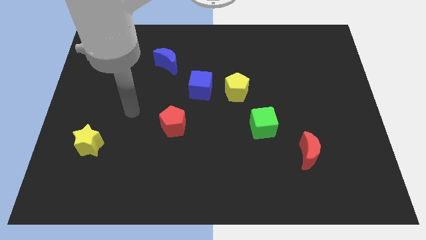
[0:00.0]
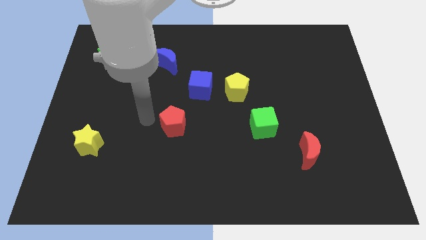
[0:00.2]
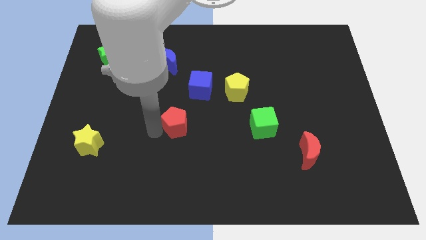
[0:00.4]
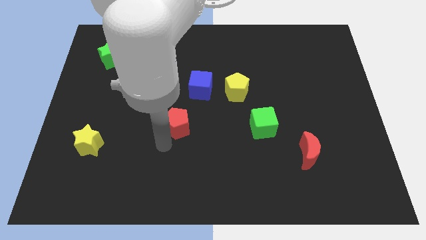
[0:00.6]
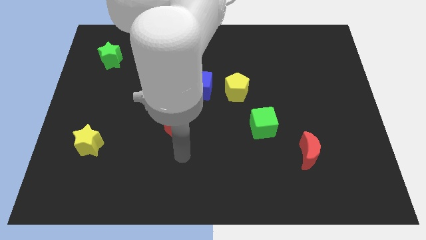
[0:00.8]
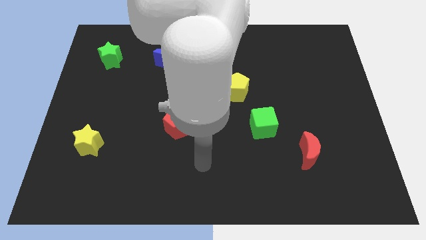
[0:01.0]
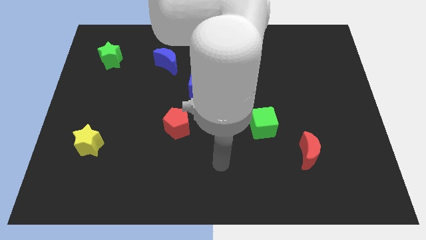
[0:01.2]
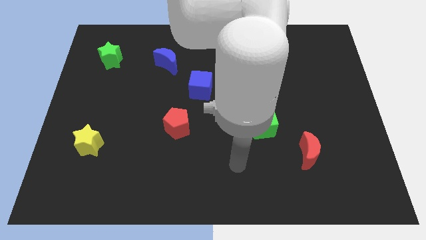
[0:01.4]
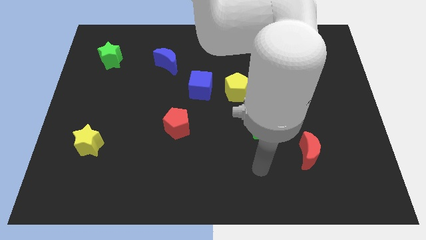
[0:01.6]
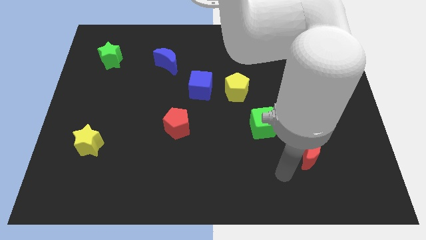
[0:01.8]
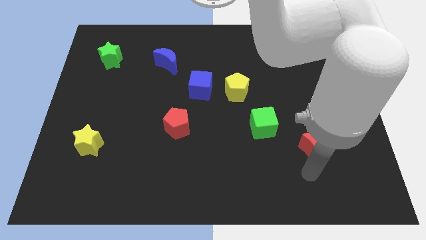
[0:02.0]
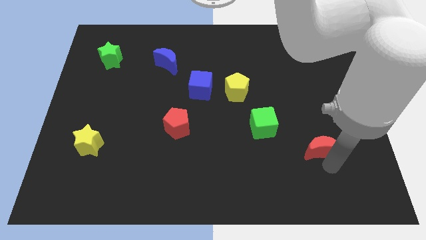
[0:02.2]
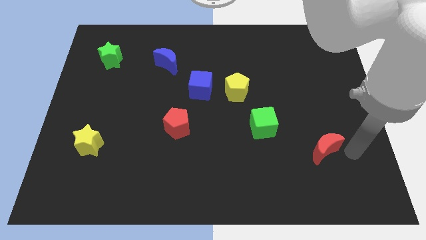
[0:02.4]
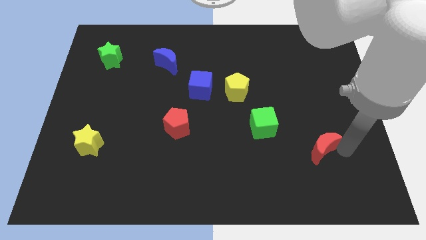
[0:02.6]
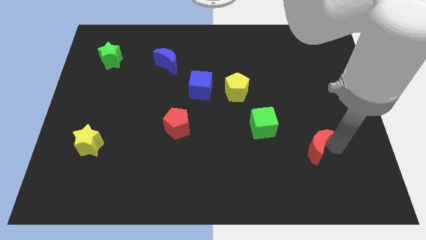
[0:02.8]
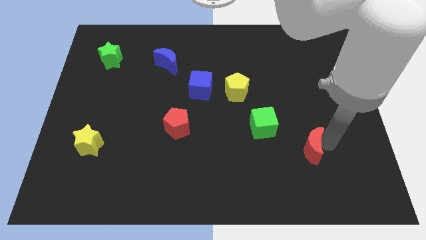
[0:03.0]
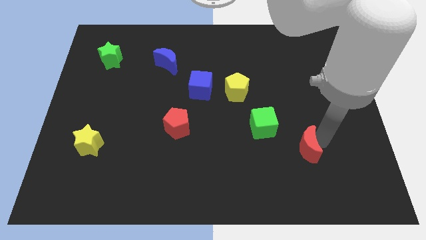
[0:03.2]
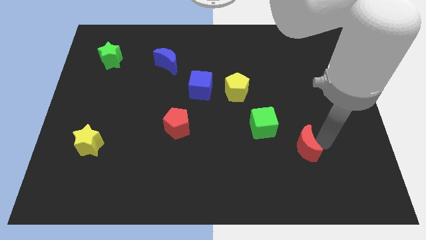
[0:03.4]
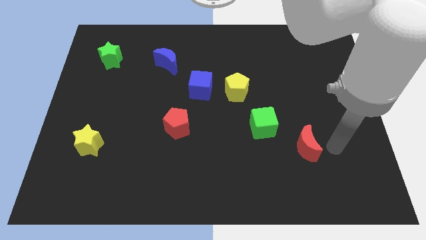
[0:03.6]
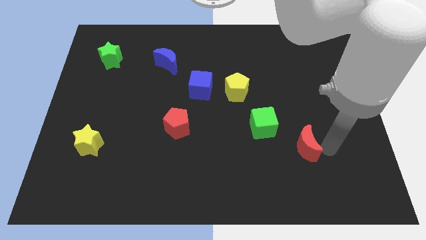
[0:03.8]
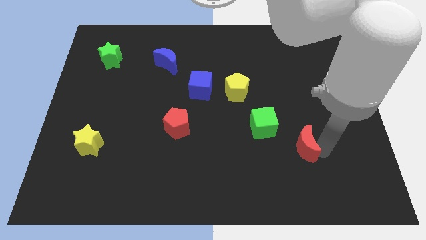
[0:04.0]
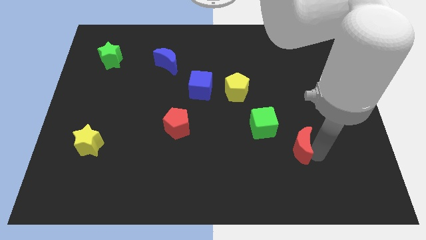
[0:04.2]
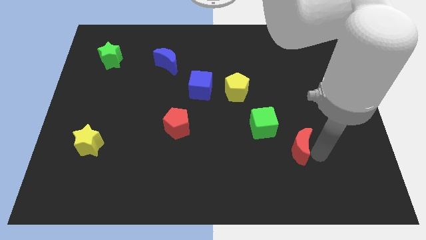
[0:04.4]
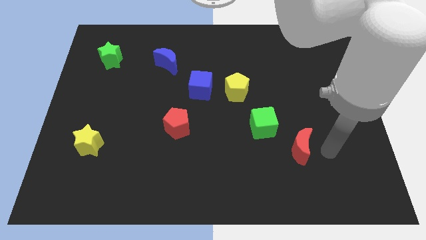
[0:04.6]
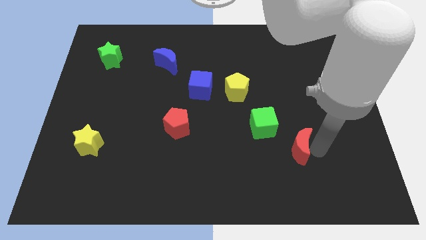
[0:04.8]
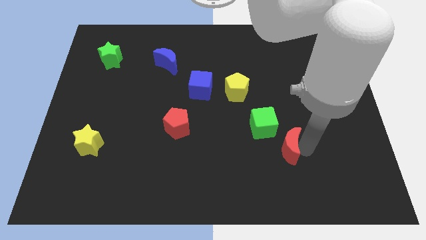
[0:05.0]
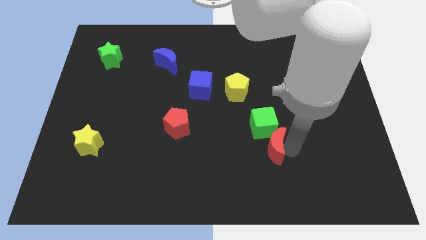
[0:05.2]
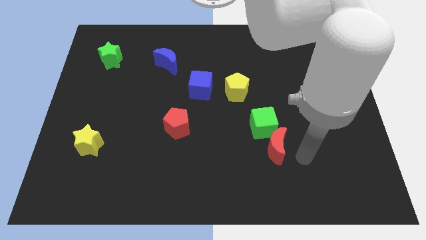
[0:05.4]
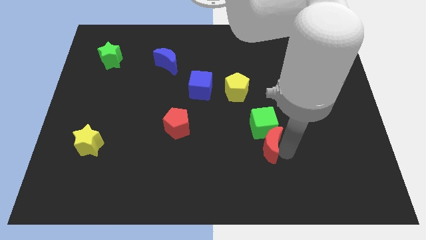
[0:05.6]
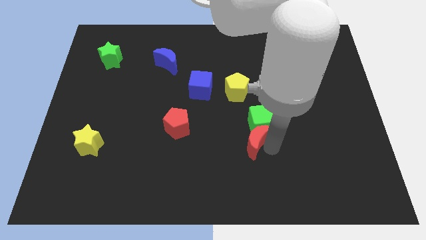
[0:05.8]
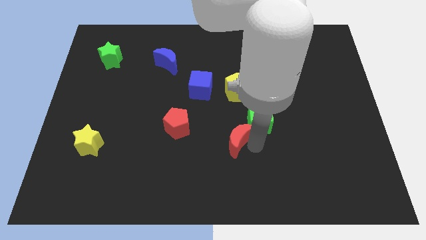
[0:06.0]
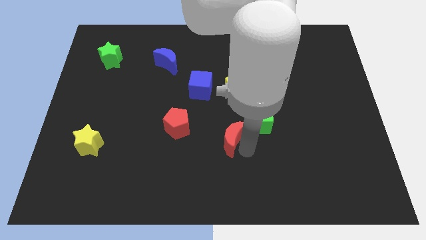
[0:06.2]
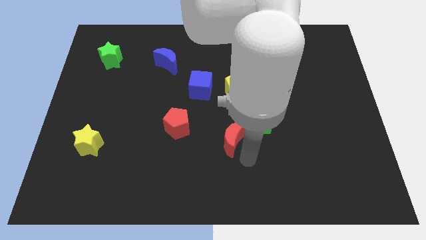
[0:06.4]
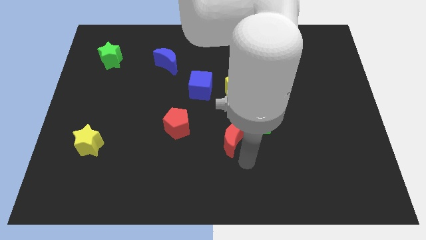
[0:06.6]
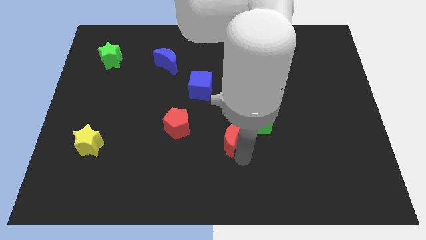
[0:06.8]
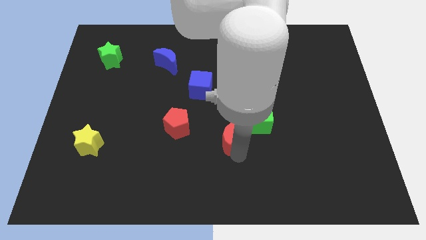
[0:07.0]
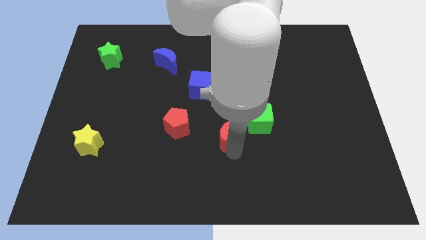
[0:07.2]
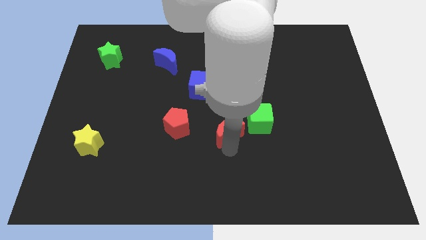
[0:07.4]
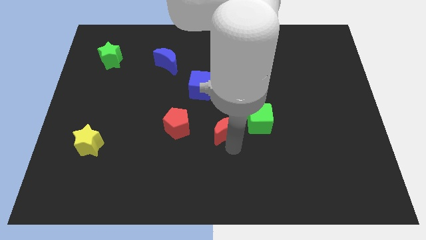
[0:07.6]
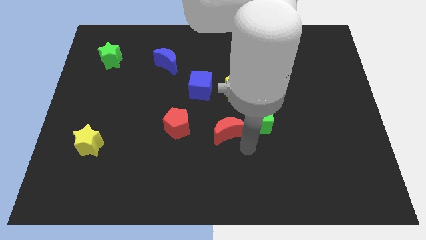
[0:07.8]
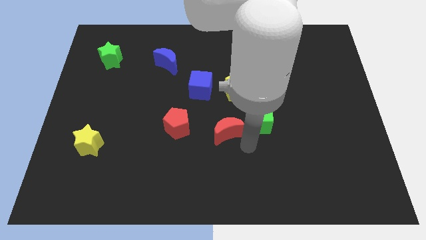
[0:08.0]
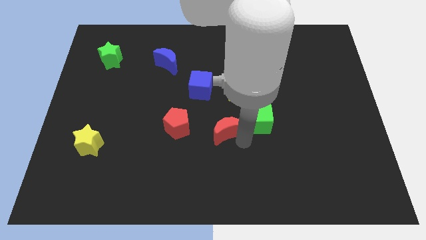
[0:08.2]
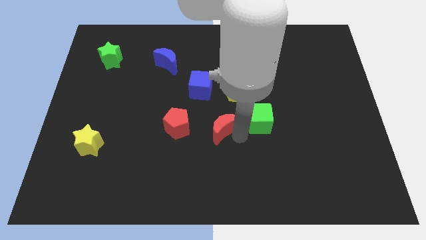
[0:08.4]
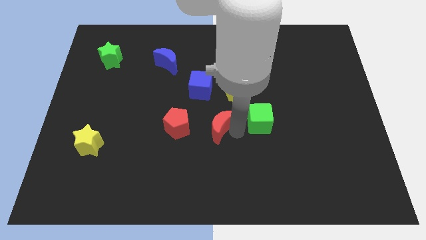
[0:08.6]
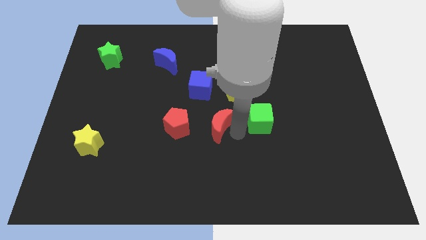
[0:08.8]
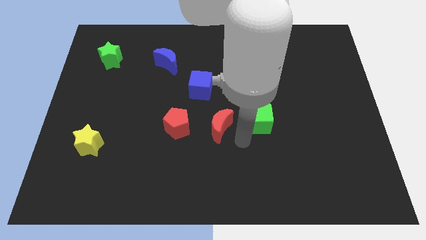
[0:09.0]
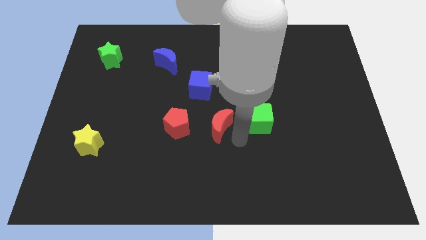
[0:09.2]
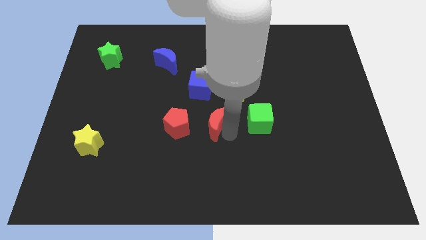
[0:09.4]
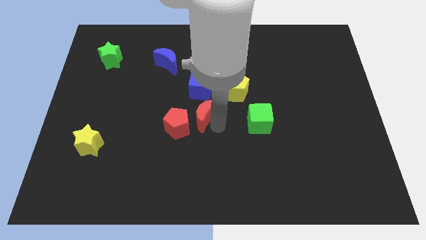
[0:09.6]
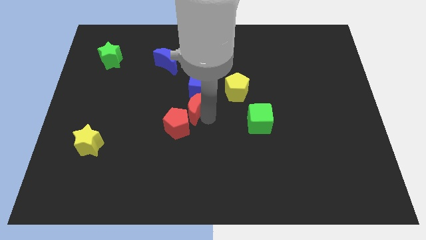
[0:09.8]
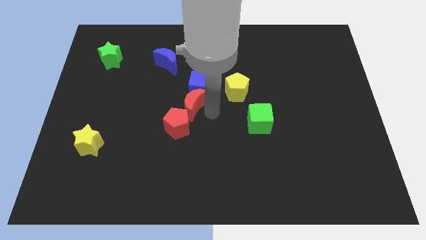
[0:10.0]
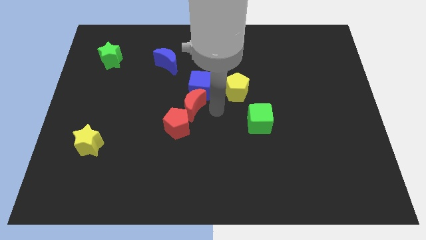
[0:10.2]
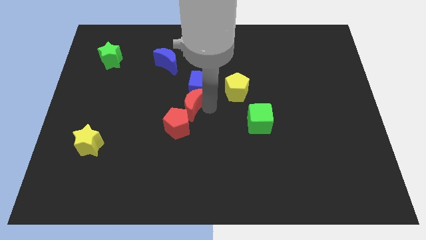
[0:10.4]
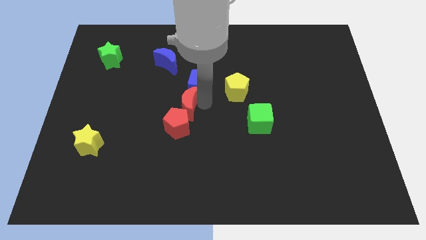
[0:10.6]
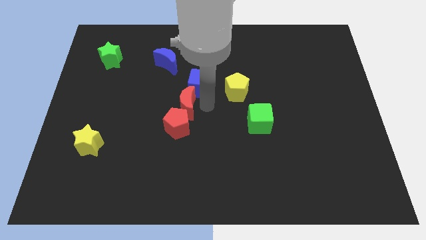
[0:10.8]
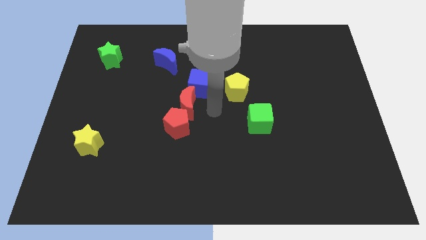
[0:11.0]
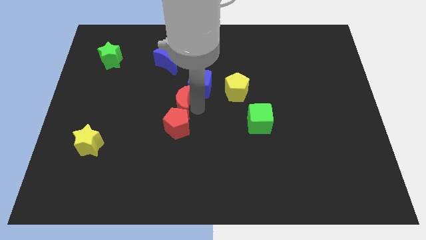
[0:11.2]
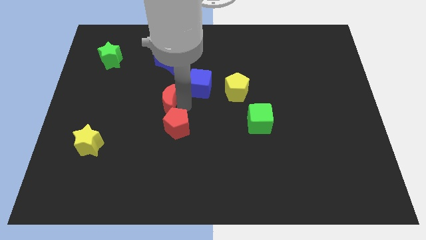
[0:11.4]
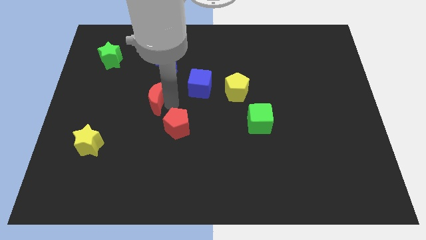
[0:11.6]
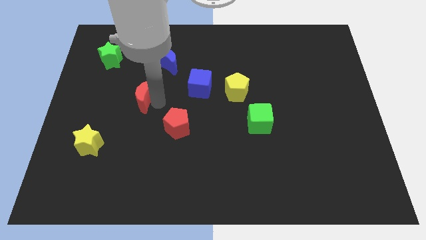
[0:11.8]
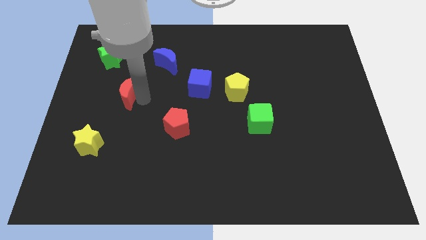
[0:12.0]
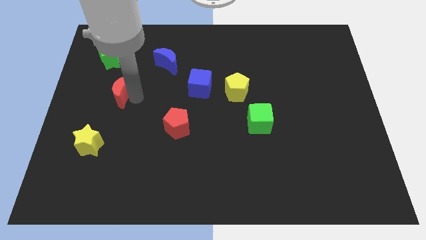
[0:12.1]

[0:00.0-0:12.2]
move the red moon to the bottom side of the green star

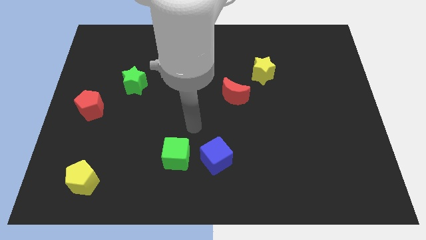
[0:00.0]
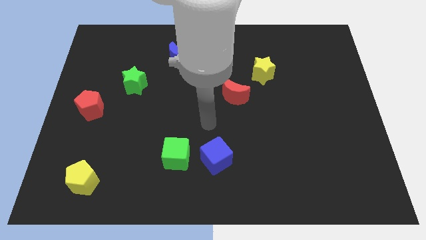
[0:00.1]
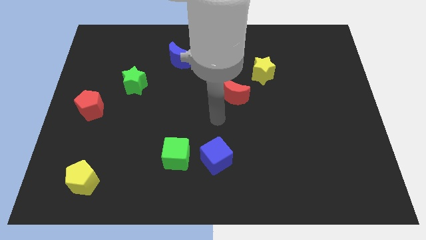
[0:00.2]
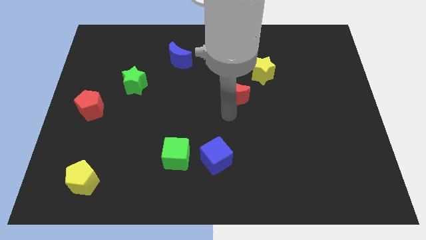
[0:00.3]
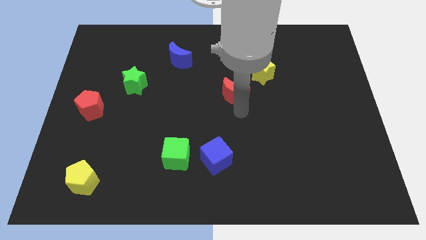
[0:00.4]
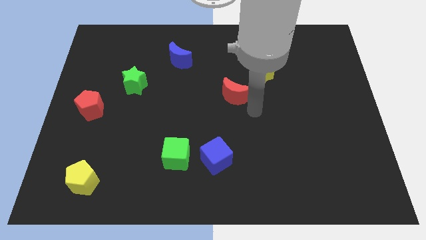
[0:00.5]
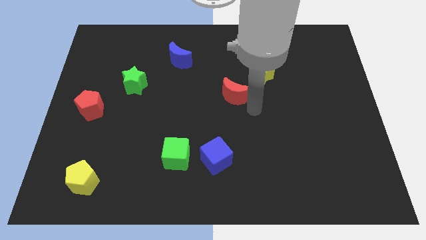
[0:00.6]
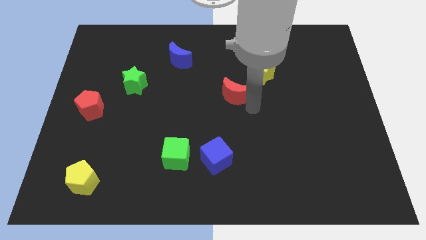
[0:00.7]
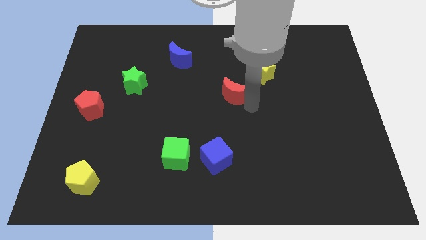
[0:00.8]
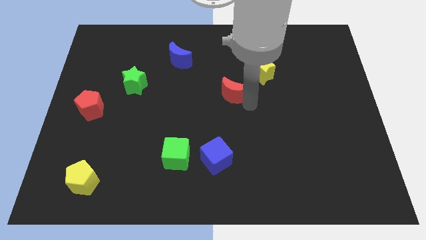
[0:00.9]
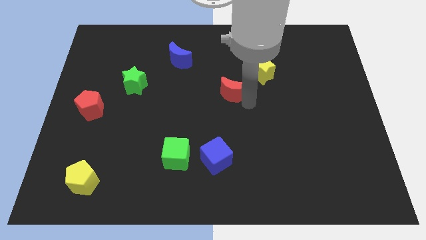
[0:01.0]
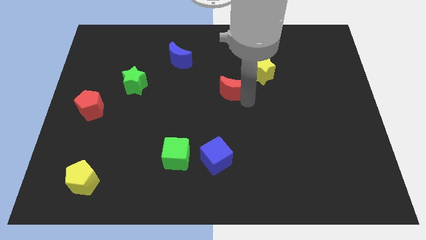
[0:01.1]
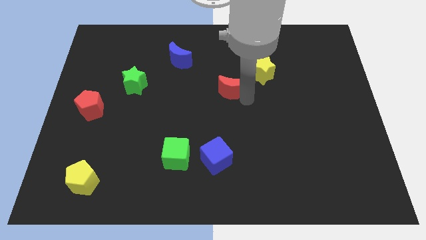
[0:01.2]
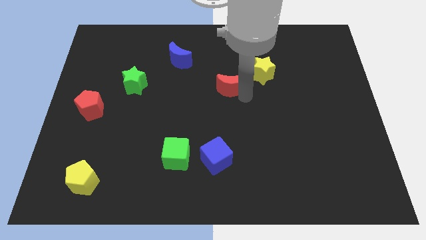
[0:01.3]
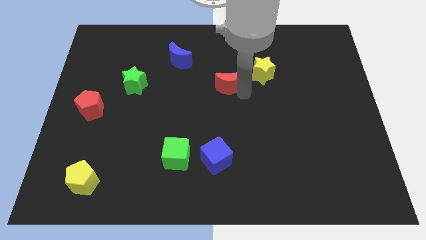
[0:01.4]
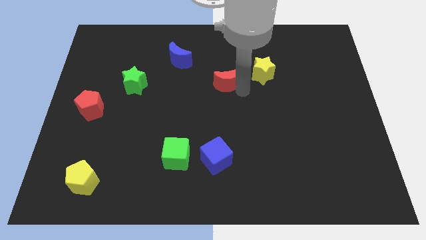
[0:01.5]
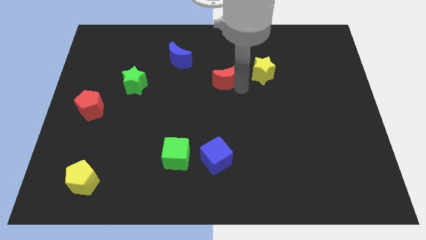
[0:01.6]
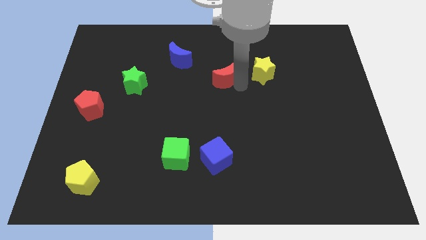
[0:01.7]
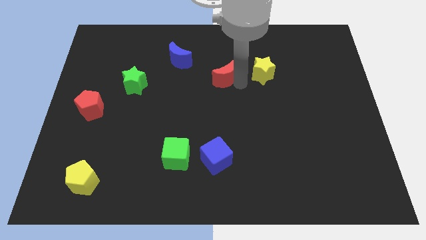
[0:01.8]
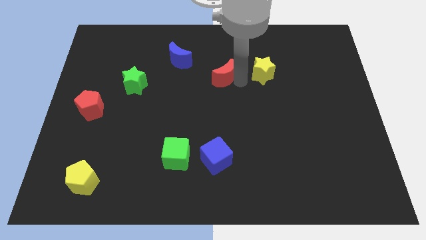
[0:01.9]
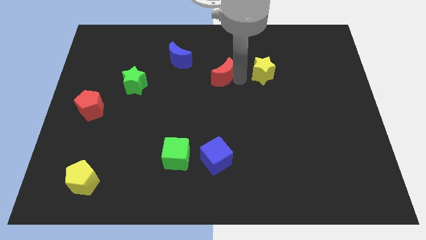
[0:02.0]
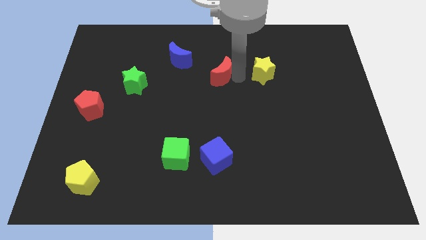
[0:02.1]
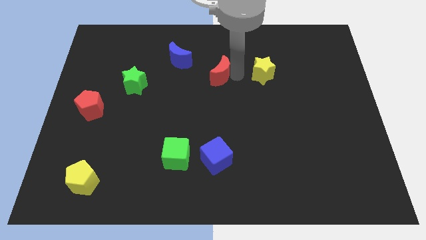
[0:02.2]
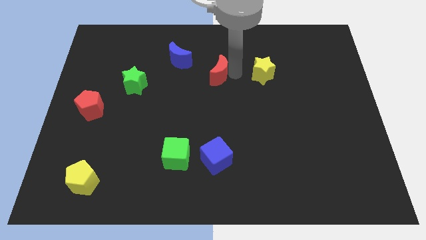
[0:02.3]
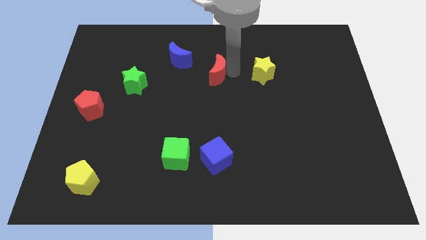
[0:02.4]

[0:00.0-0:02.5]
slide the red moon to the bottom right side of the blue moon
